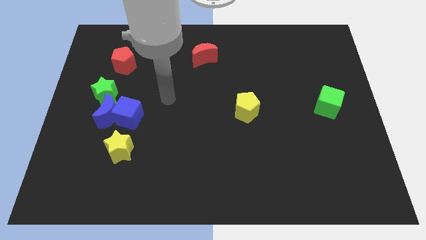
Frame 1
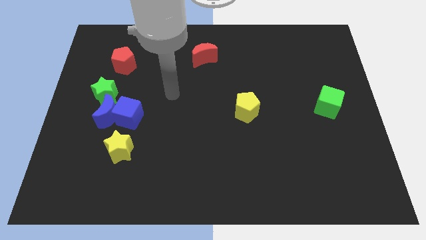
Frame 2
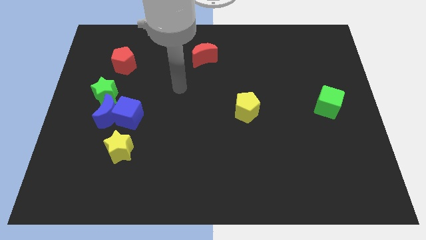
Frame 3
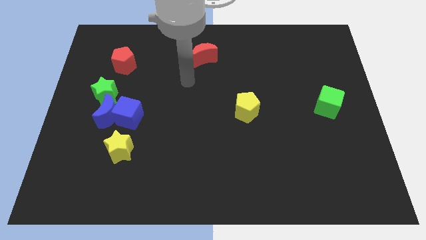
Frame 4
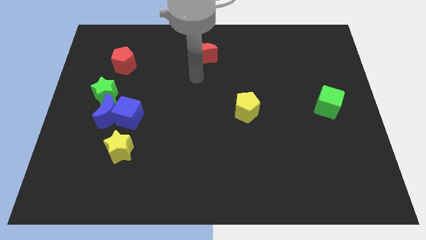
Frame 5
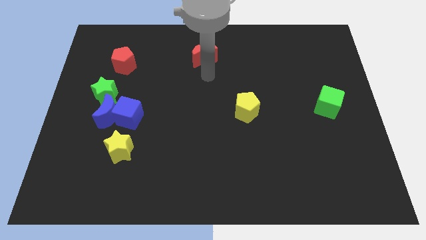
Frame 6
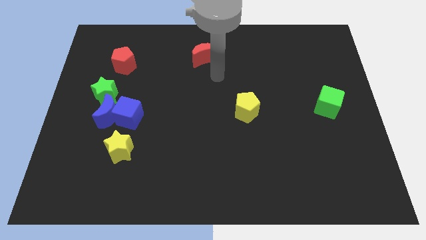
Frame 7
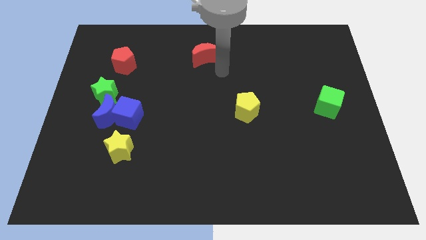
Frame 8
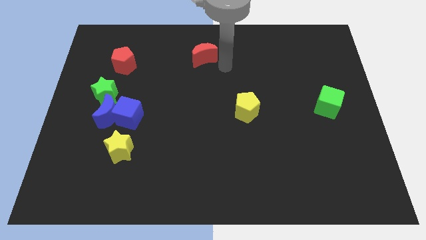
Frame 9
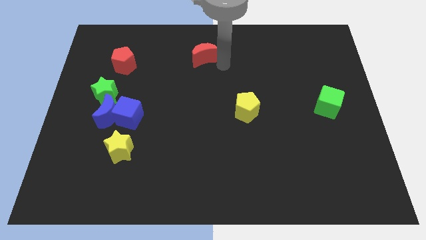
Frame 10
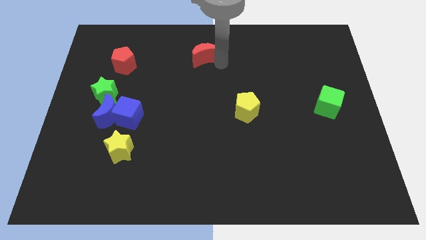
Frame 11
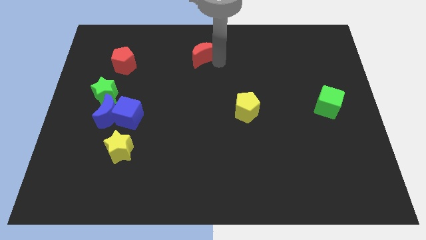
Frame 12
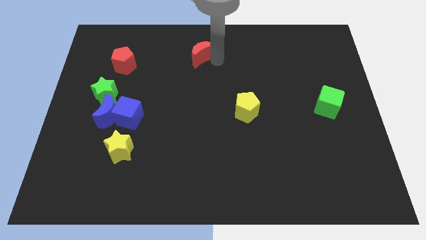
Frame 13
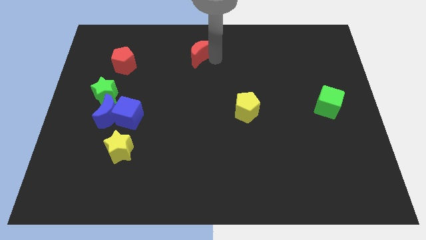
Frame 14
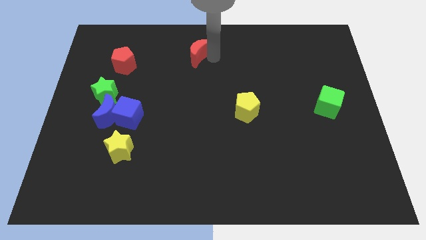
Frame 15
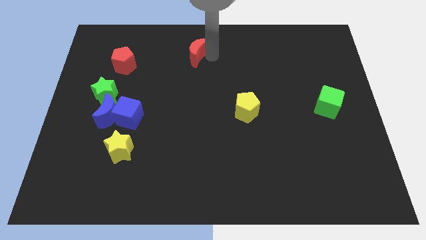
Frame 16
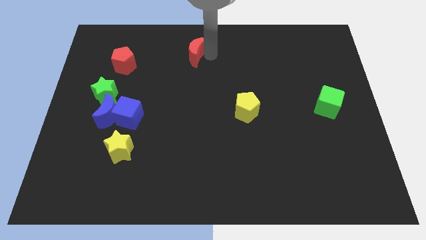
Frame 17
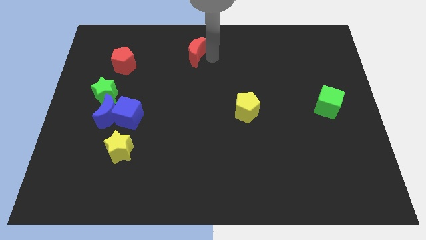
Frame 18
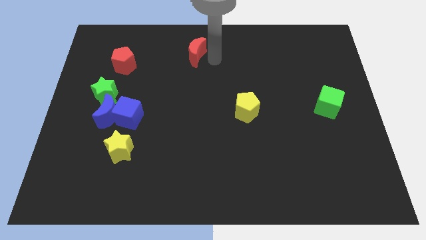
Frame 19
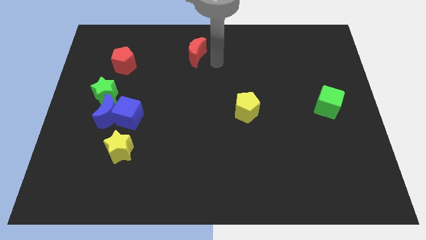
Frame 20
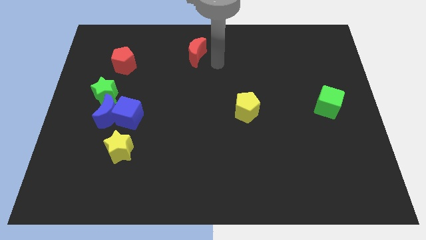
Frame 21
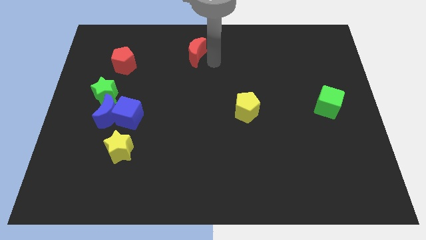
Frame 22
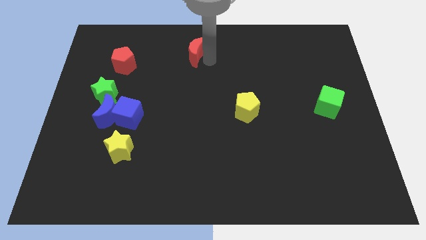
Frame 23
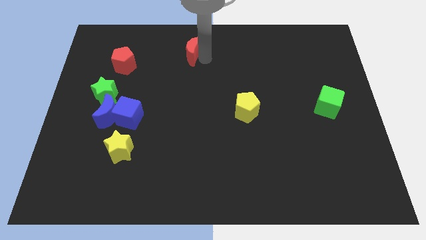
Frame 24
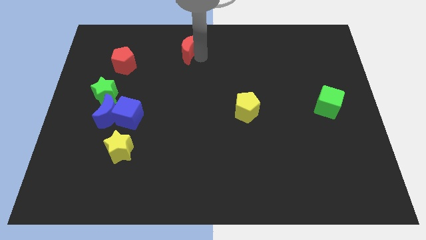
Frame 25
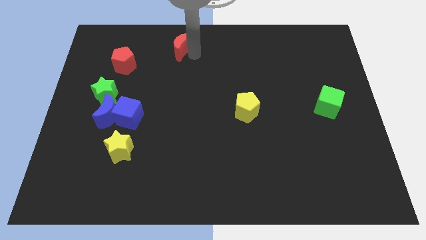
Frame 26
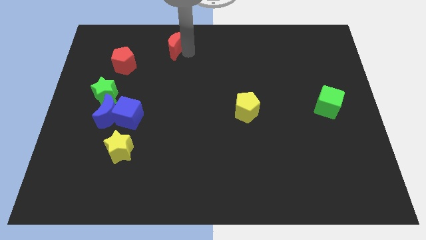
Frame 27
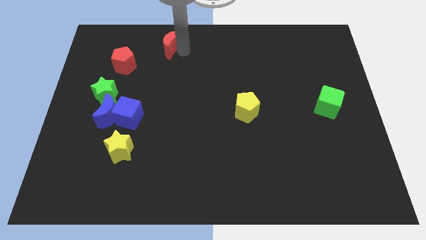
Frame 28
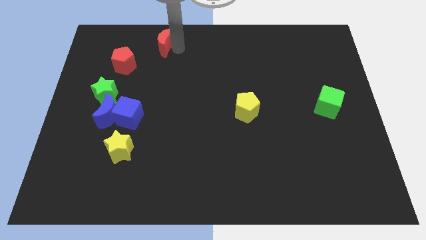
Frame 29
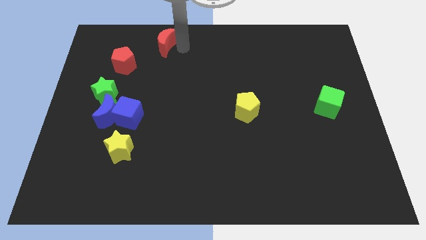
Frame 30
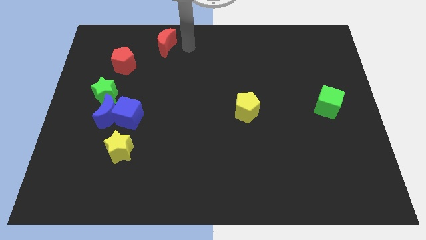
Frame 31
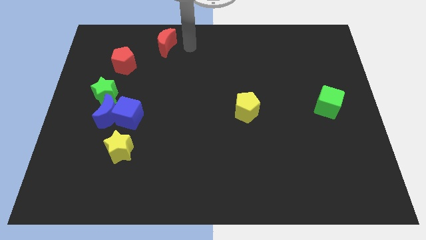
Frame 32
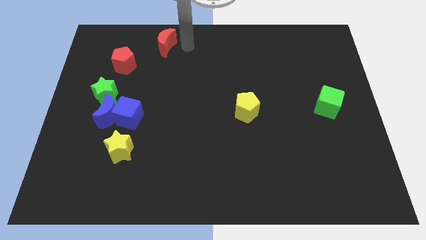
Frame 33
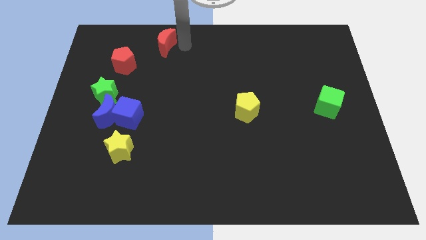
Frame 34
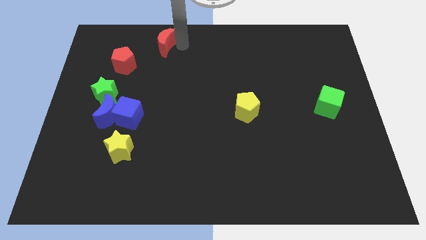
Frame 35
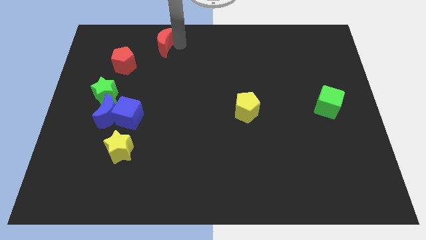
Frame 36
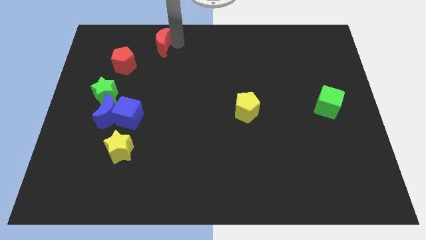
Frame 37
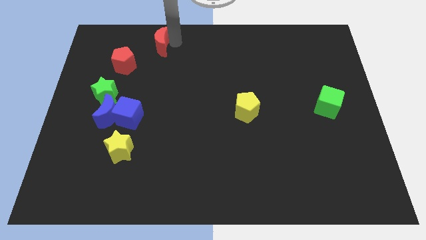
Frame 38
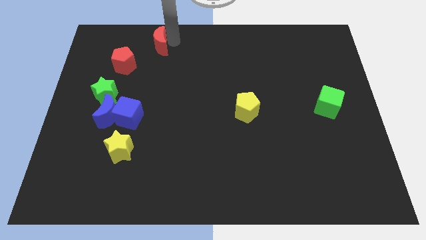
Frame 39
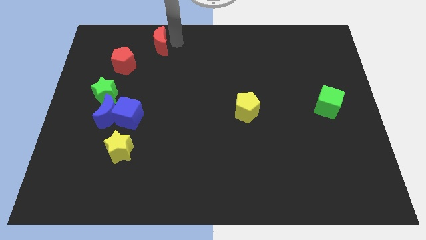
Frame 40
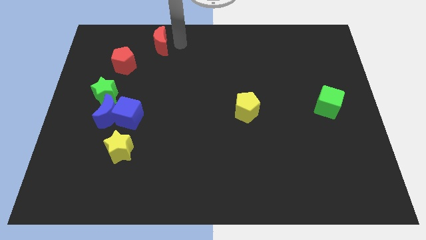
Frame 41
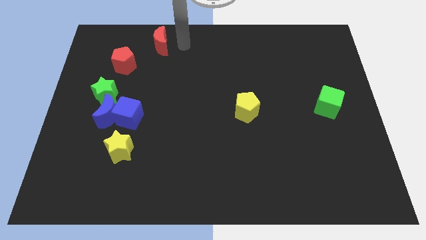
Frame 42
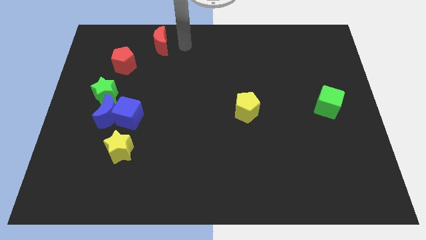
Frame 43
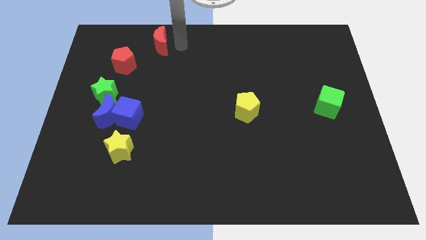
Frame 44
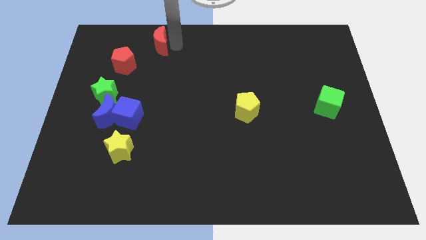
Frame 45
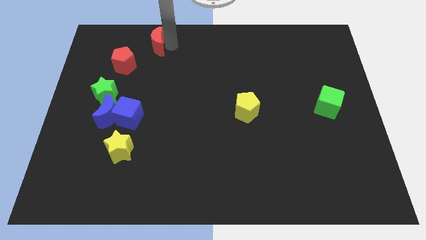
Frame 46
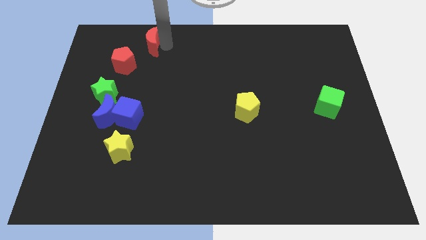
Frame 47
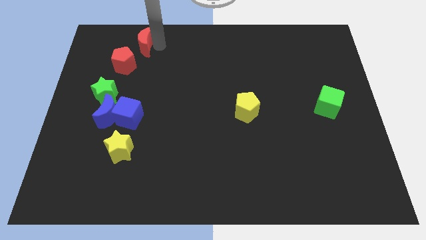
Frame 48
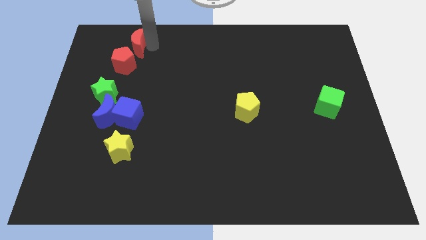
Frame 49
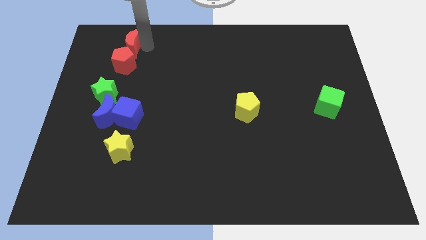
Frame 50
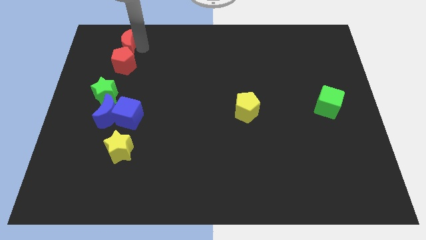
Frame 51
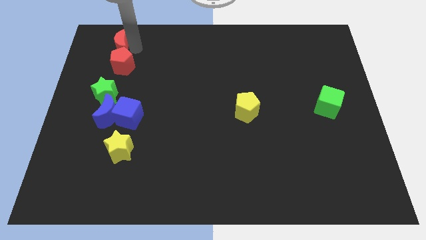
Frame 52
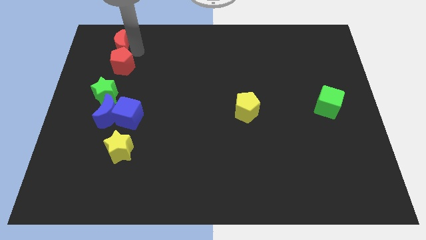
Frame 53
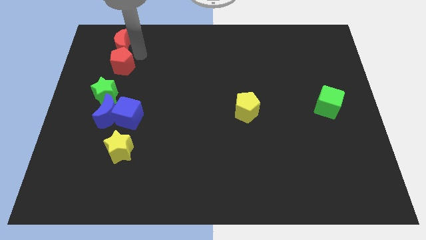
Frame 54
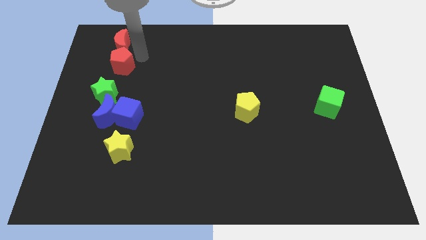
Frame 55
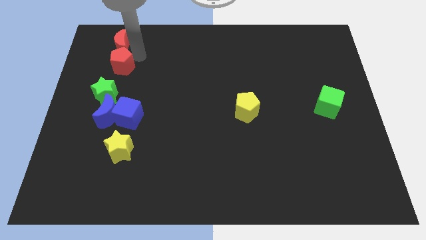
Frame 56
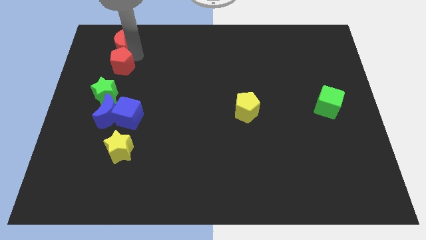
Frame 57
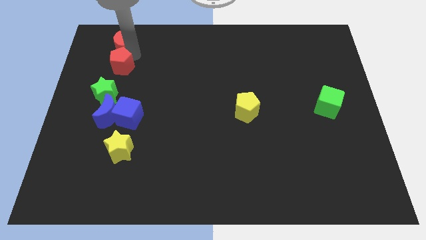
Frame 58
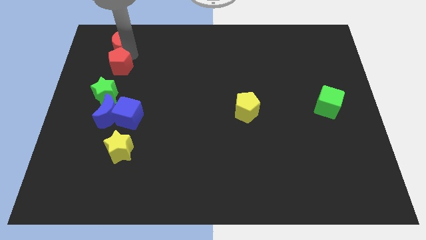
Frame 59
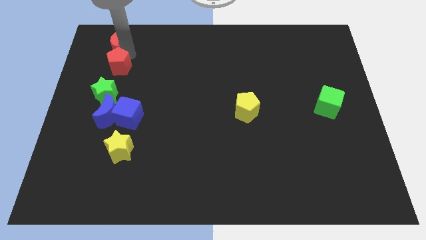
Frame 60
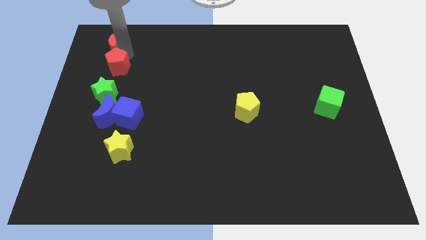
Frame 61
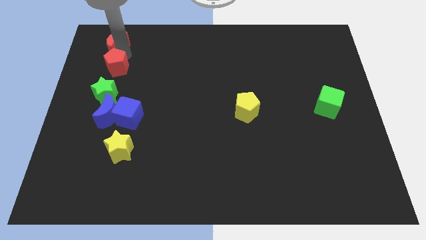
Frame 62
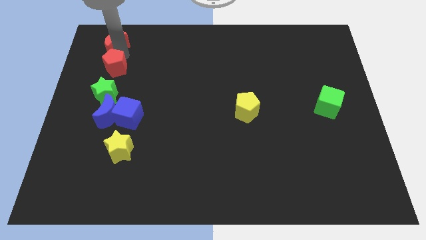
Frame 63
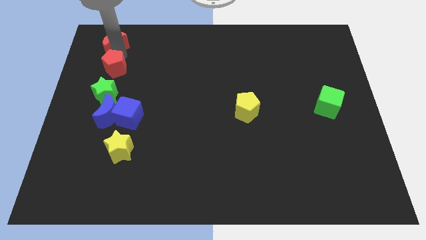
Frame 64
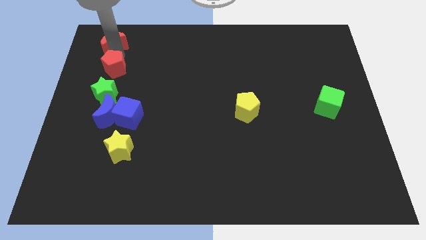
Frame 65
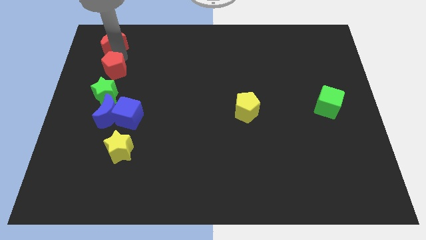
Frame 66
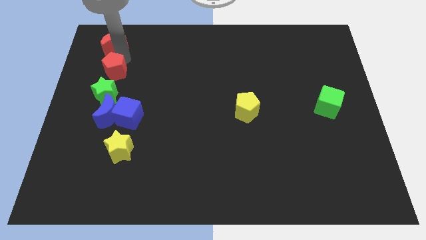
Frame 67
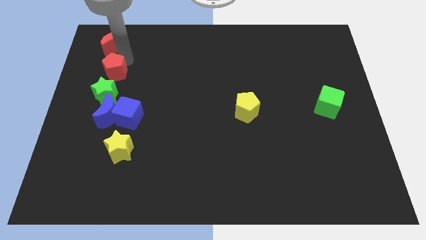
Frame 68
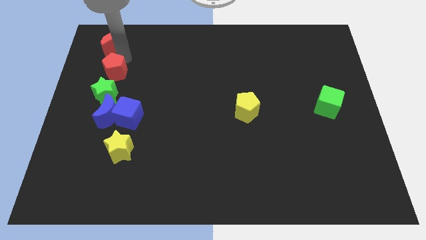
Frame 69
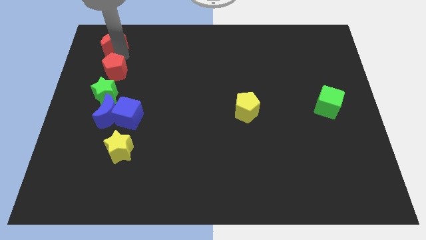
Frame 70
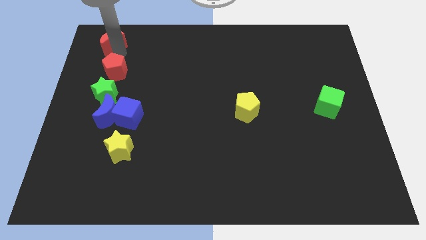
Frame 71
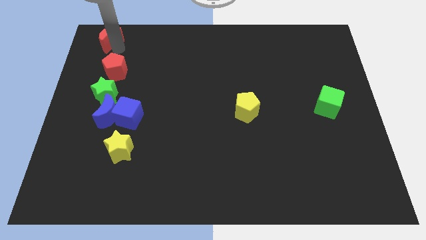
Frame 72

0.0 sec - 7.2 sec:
put the red moon to the top left corner
